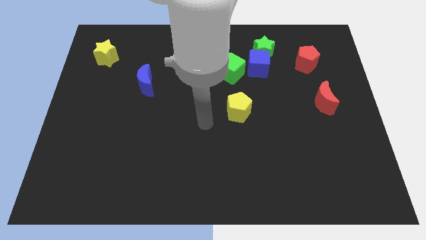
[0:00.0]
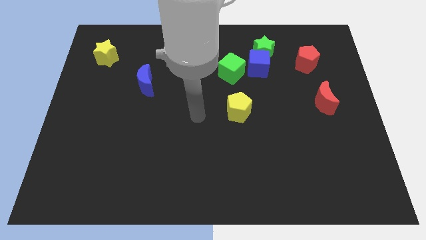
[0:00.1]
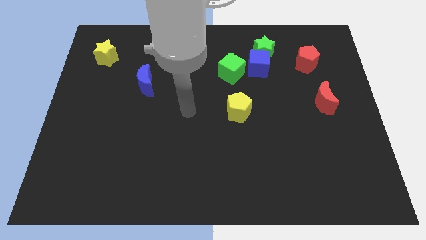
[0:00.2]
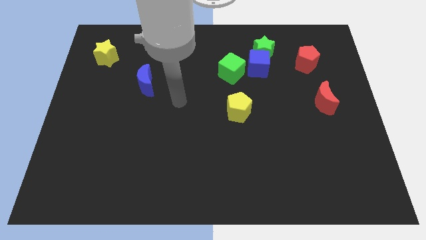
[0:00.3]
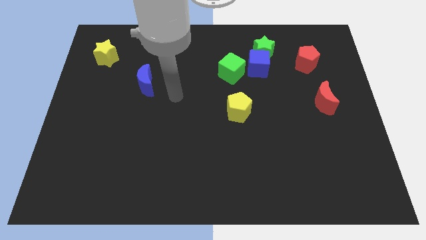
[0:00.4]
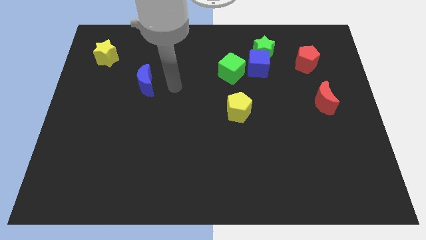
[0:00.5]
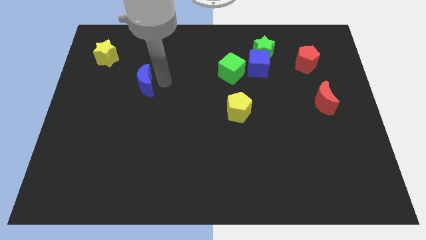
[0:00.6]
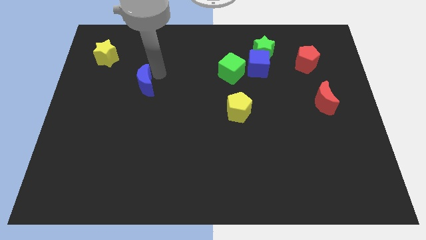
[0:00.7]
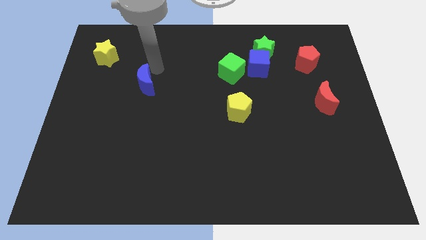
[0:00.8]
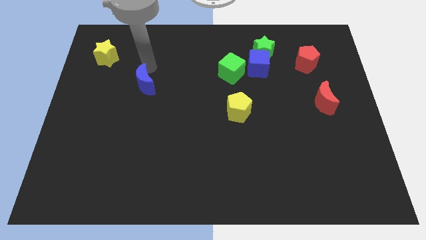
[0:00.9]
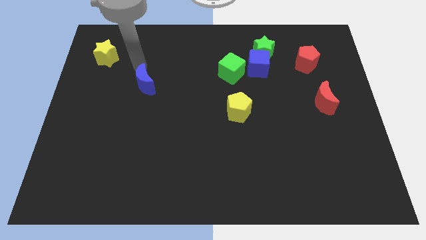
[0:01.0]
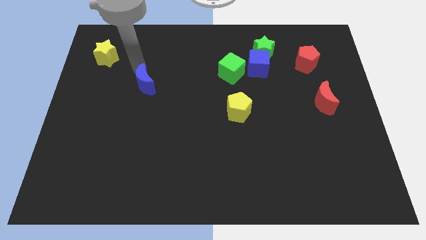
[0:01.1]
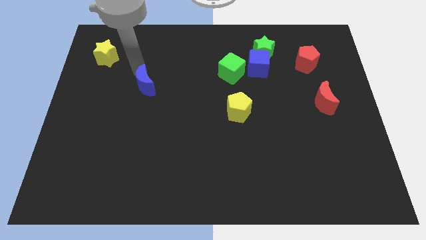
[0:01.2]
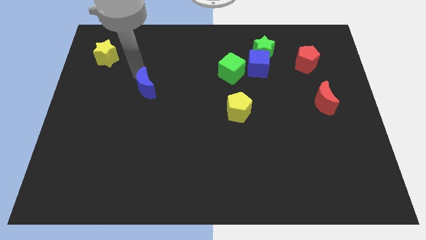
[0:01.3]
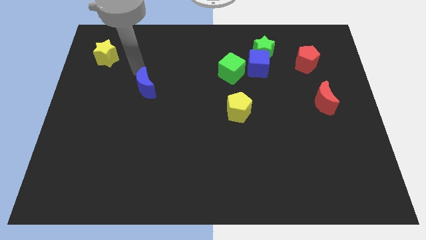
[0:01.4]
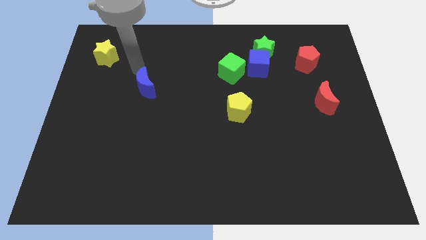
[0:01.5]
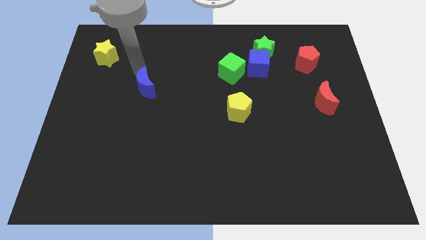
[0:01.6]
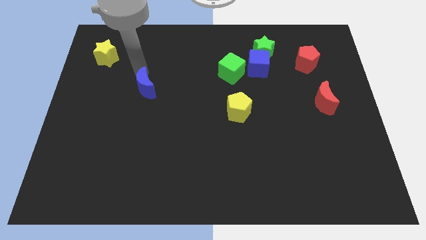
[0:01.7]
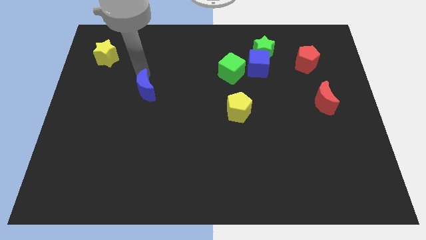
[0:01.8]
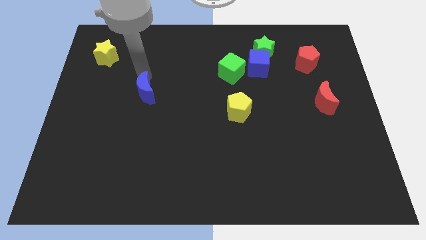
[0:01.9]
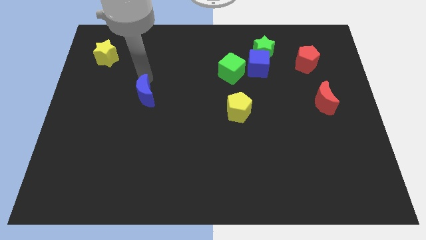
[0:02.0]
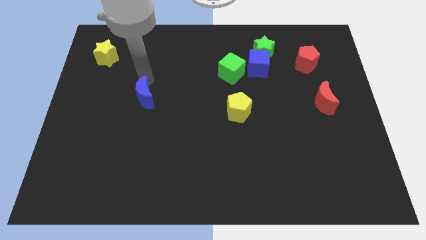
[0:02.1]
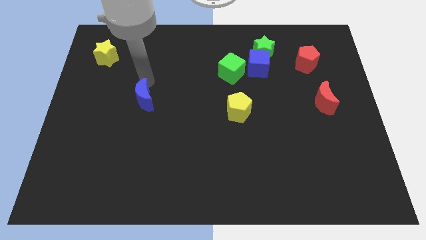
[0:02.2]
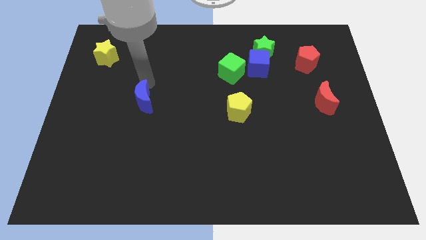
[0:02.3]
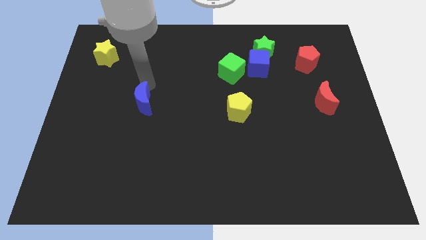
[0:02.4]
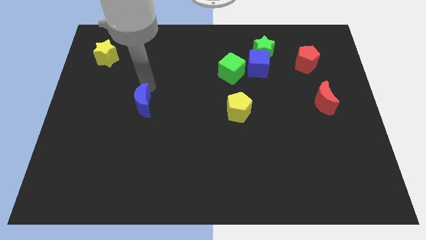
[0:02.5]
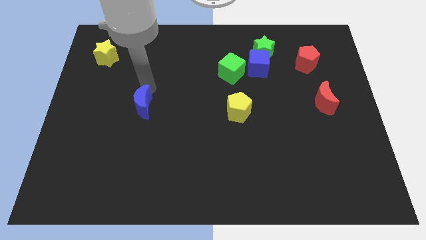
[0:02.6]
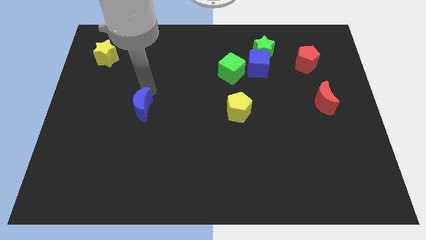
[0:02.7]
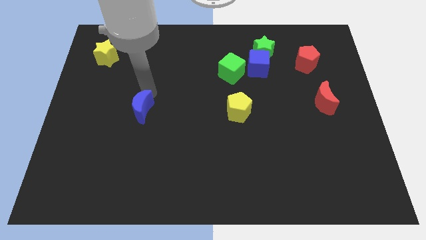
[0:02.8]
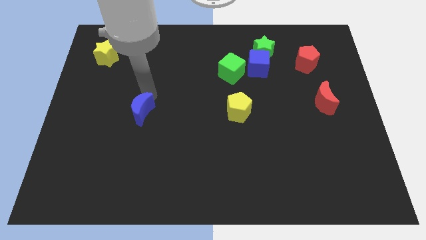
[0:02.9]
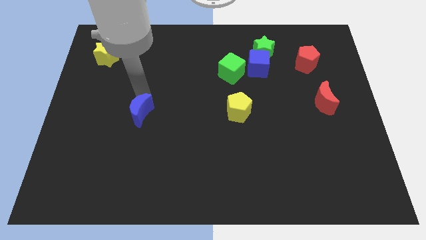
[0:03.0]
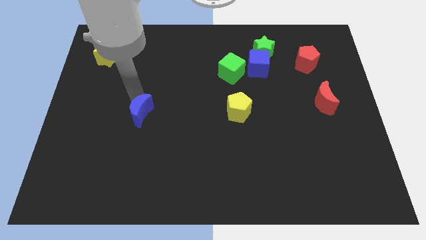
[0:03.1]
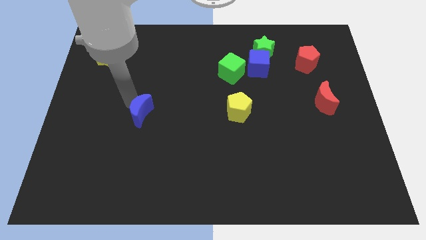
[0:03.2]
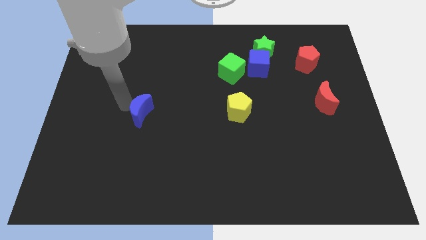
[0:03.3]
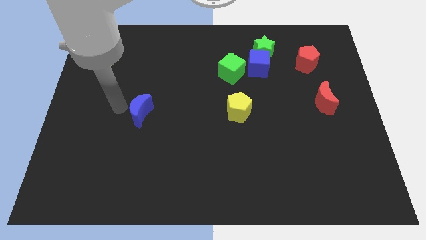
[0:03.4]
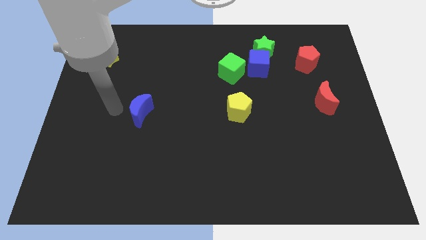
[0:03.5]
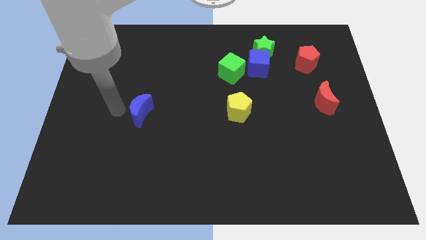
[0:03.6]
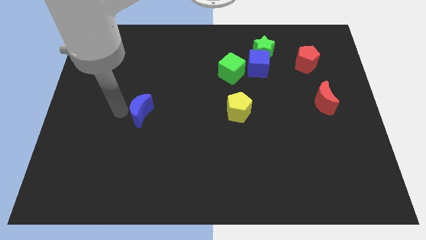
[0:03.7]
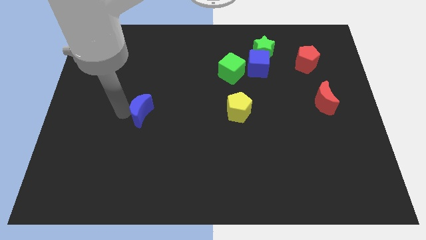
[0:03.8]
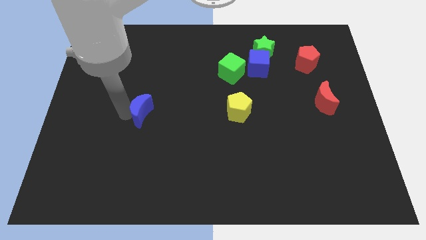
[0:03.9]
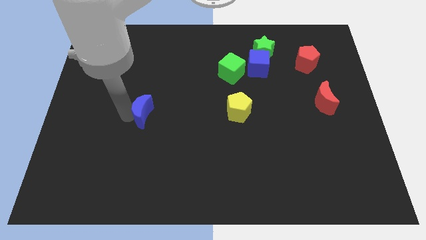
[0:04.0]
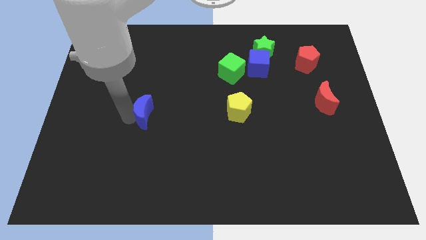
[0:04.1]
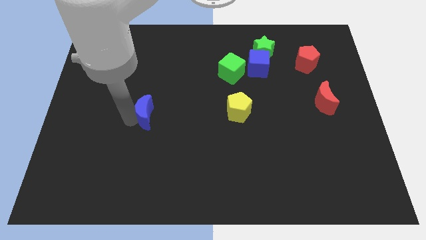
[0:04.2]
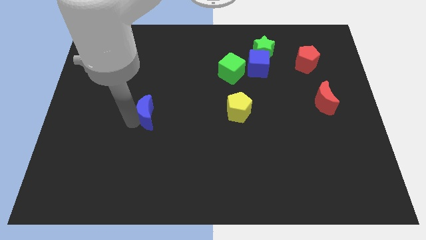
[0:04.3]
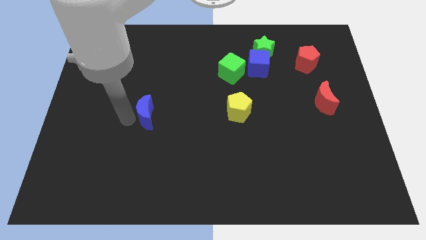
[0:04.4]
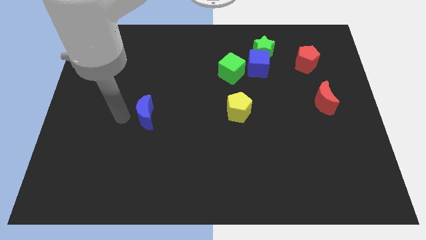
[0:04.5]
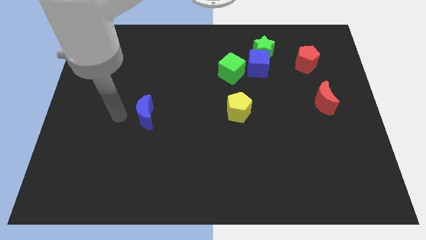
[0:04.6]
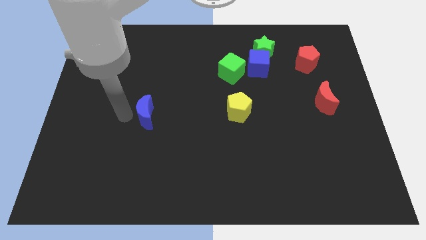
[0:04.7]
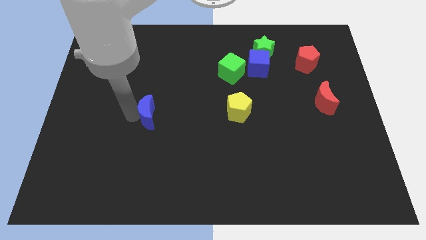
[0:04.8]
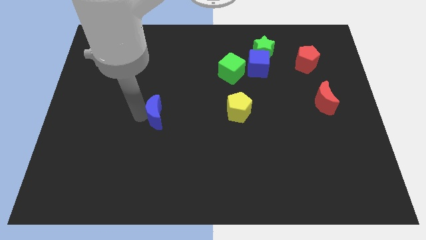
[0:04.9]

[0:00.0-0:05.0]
slide the blue moon downwards and then right a little

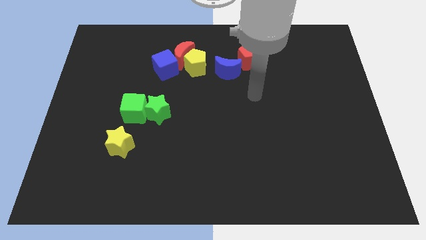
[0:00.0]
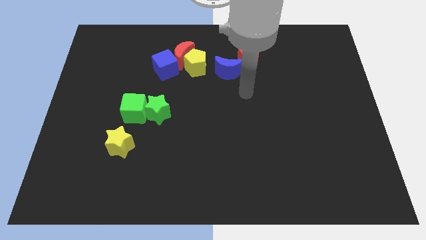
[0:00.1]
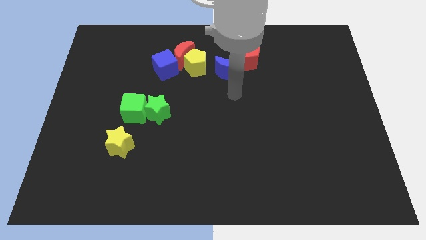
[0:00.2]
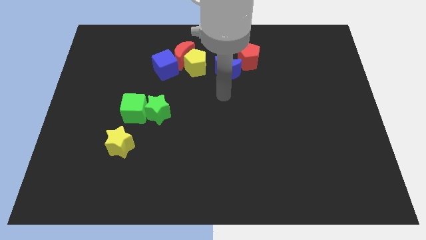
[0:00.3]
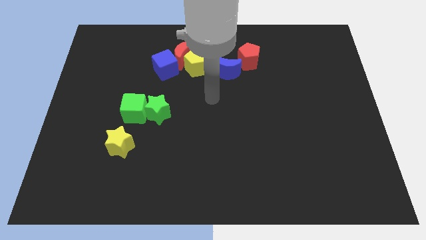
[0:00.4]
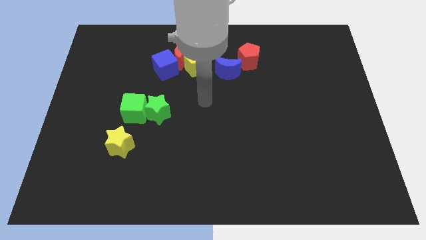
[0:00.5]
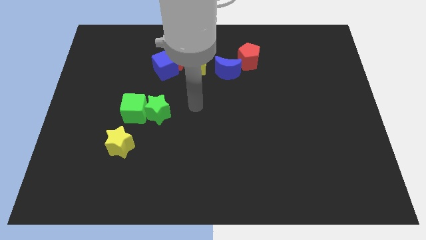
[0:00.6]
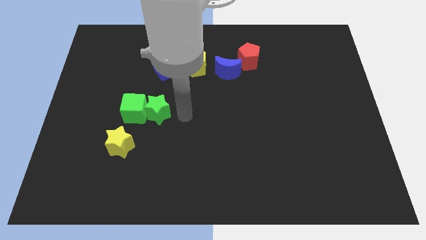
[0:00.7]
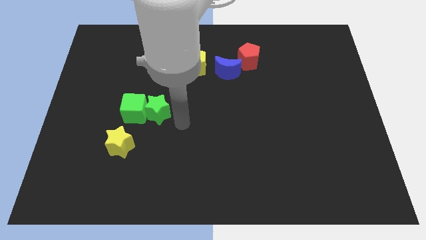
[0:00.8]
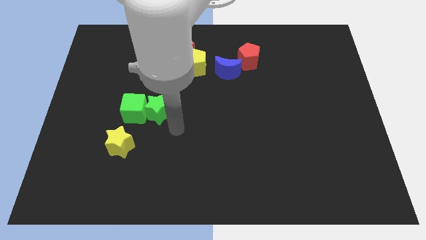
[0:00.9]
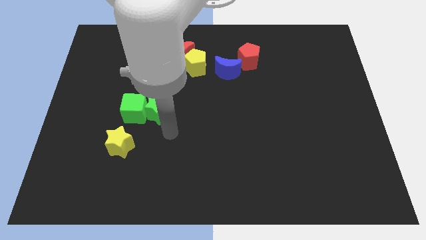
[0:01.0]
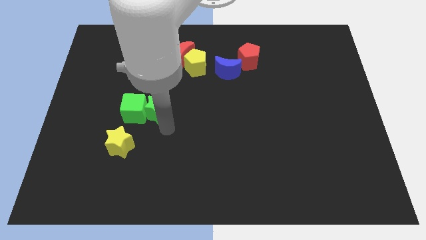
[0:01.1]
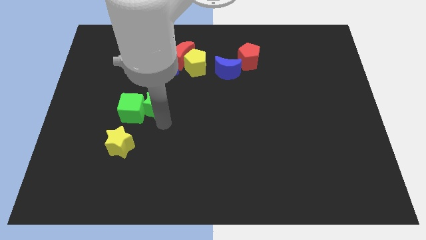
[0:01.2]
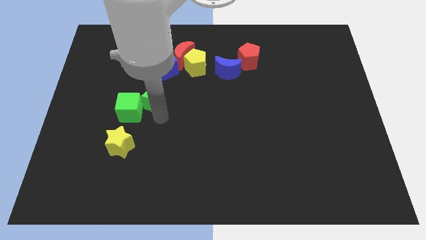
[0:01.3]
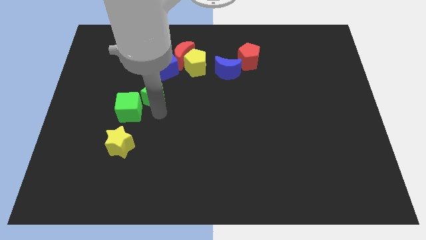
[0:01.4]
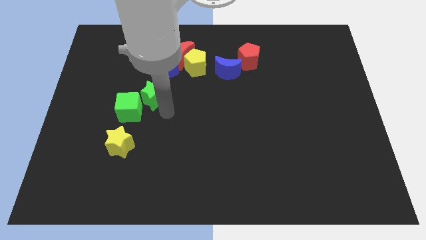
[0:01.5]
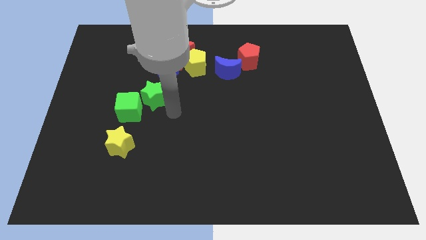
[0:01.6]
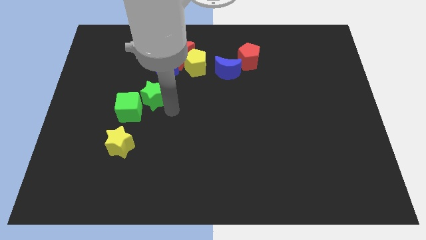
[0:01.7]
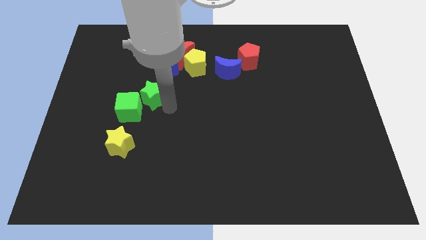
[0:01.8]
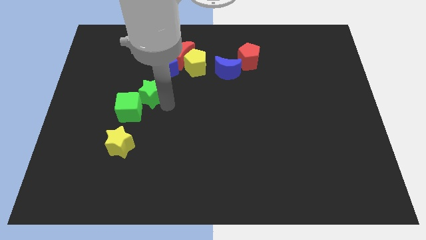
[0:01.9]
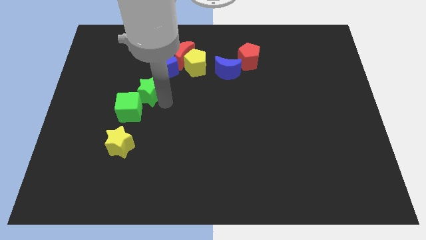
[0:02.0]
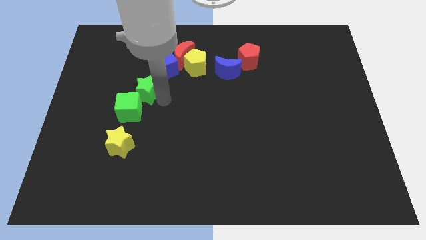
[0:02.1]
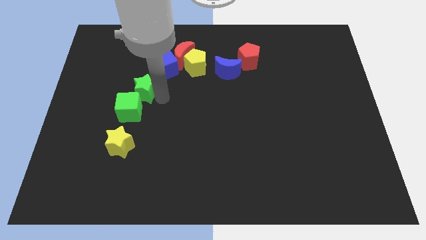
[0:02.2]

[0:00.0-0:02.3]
move the green star slightly upwards and then left

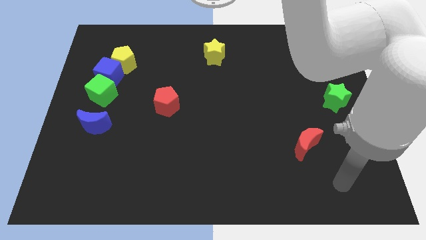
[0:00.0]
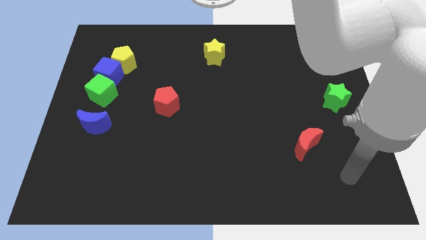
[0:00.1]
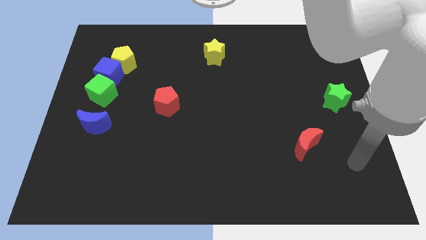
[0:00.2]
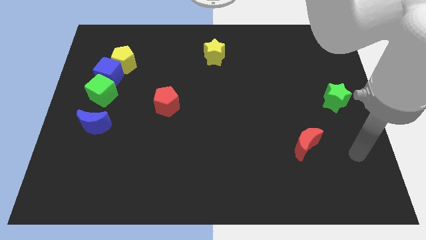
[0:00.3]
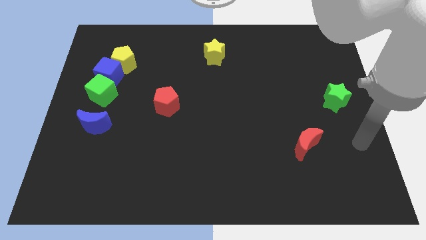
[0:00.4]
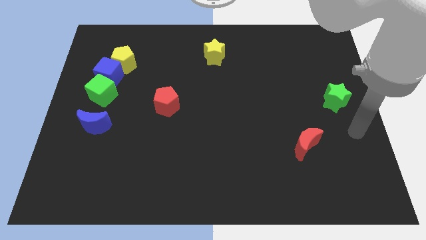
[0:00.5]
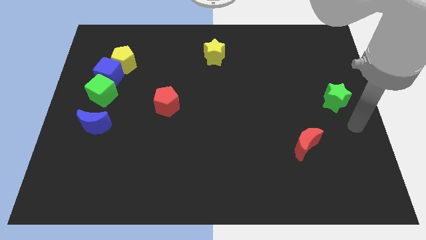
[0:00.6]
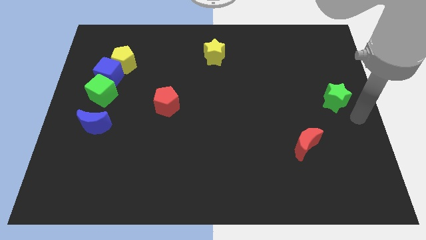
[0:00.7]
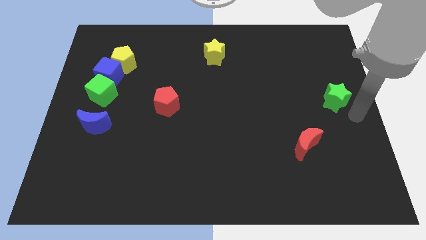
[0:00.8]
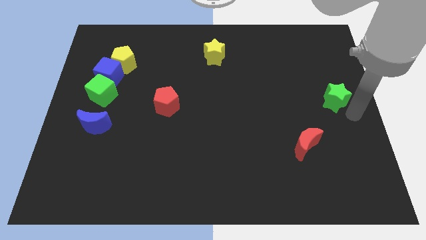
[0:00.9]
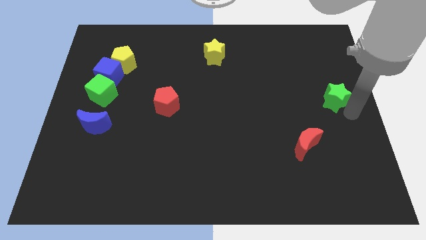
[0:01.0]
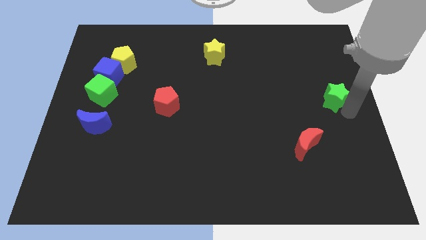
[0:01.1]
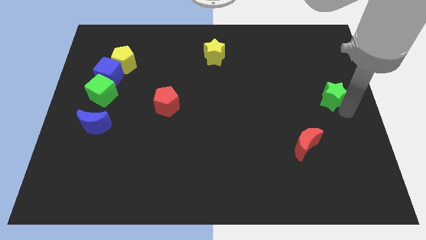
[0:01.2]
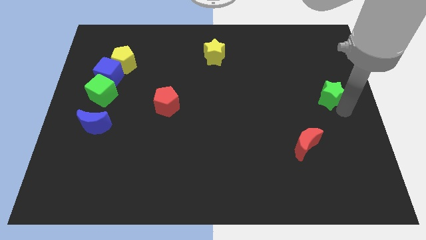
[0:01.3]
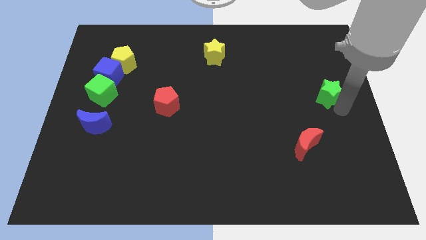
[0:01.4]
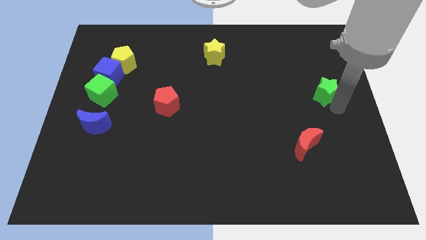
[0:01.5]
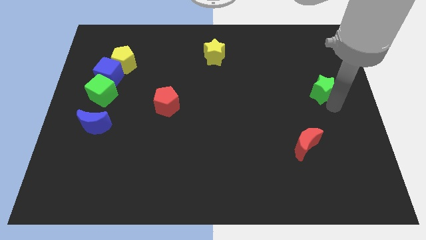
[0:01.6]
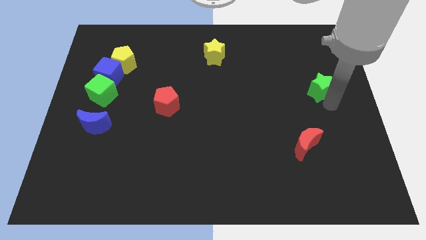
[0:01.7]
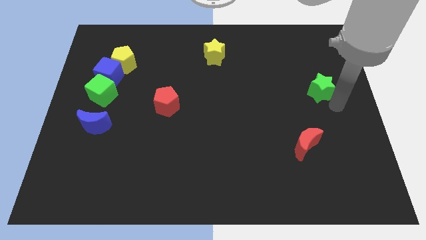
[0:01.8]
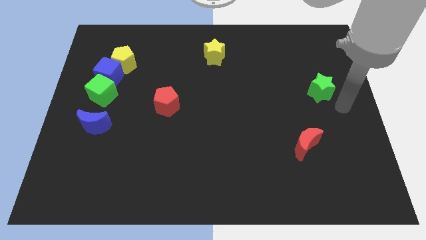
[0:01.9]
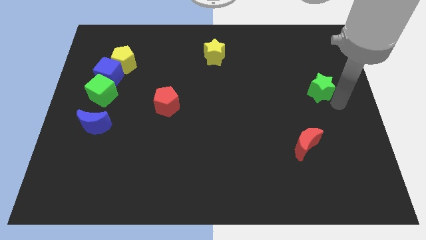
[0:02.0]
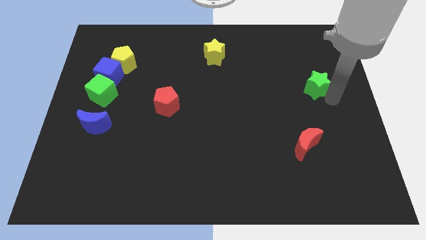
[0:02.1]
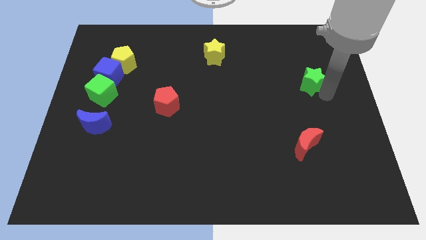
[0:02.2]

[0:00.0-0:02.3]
move the green star somewhat up and to the left
